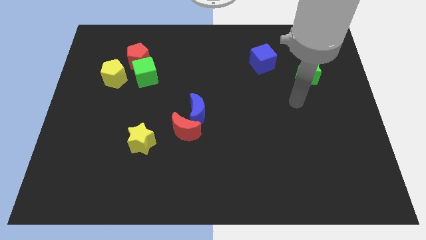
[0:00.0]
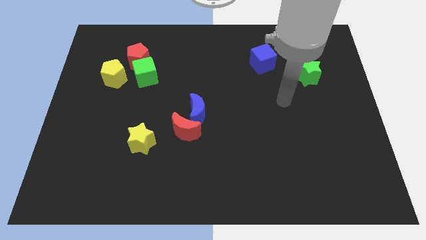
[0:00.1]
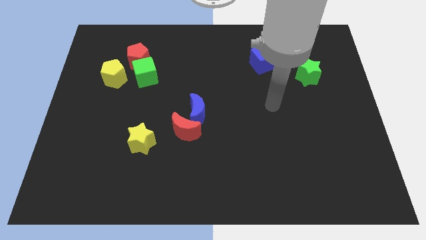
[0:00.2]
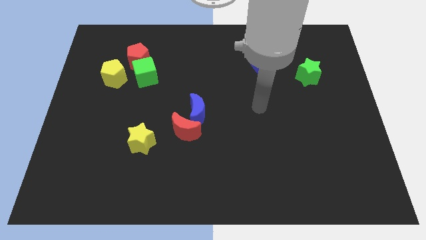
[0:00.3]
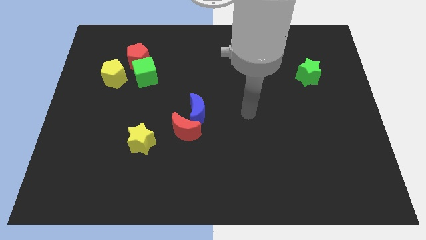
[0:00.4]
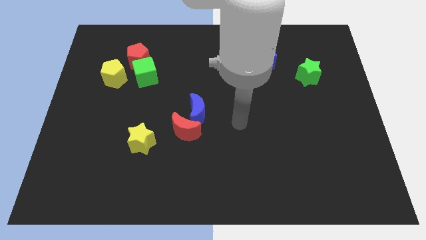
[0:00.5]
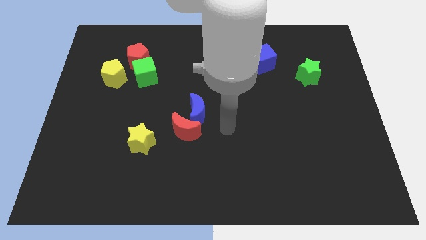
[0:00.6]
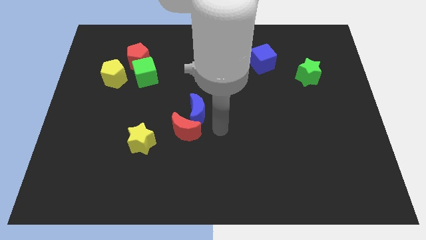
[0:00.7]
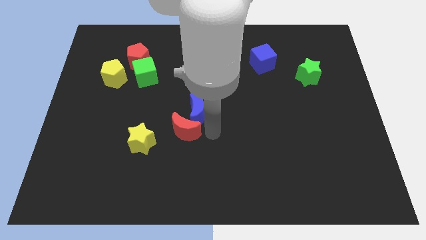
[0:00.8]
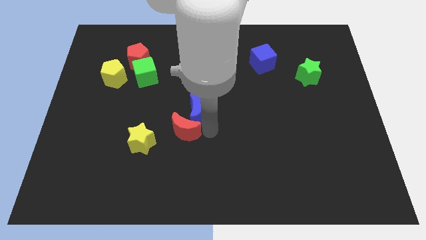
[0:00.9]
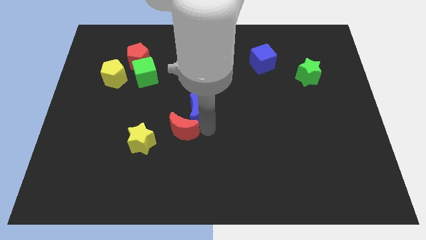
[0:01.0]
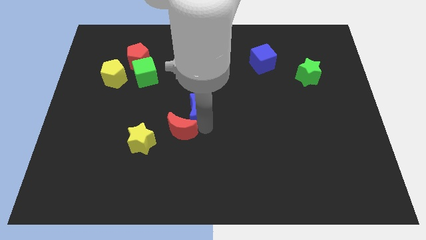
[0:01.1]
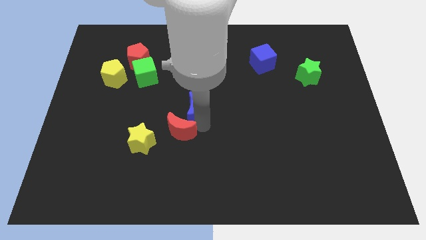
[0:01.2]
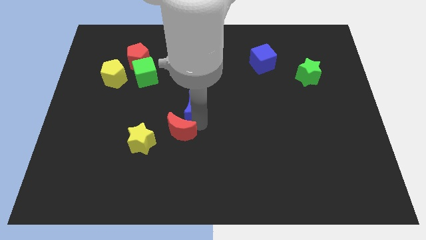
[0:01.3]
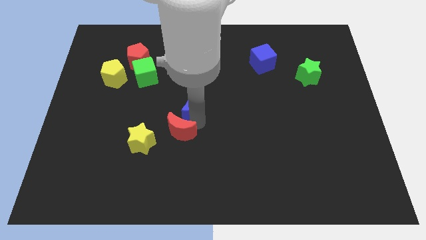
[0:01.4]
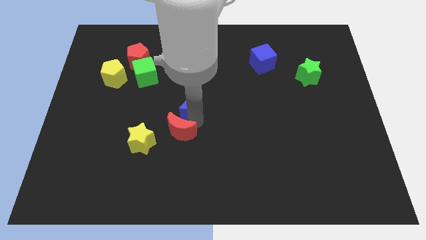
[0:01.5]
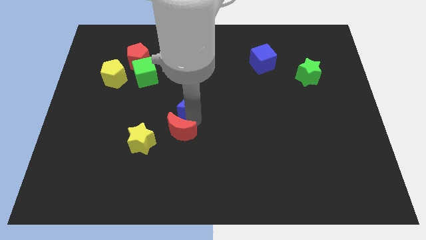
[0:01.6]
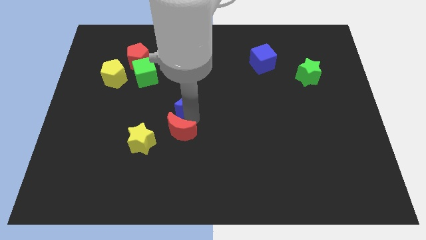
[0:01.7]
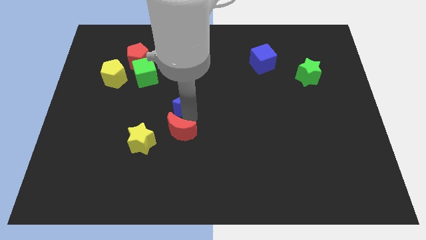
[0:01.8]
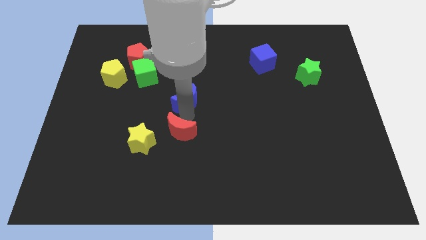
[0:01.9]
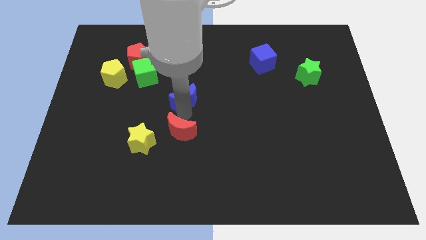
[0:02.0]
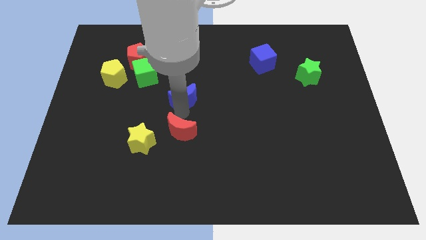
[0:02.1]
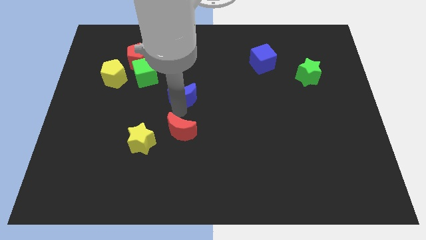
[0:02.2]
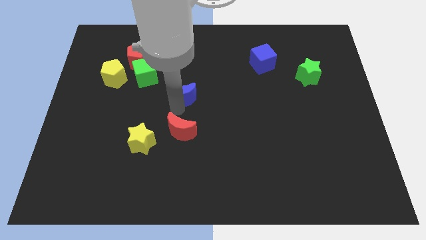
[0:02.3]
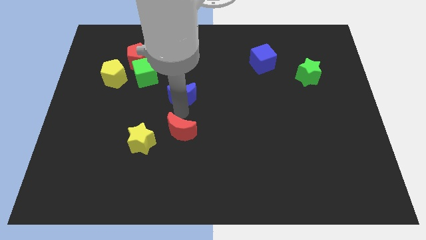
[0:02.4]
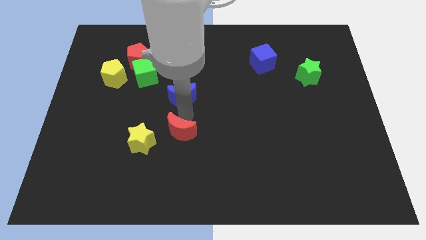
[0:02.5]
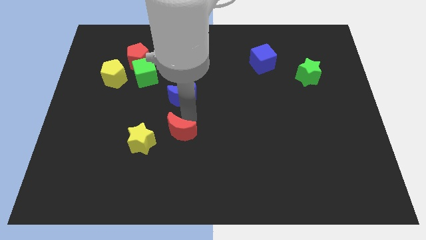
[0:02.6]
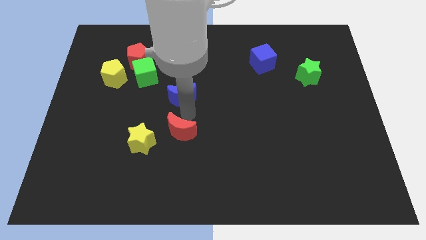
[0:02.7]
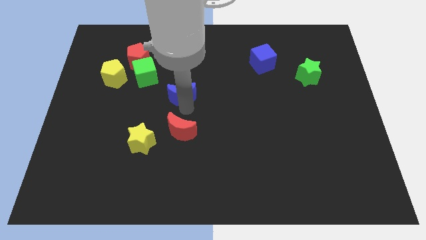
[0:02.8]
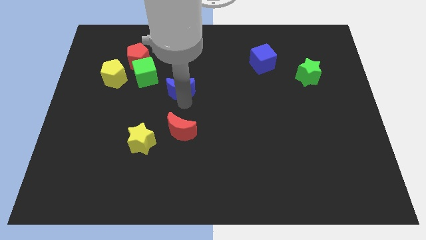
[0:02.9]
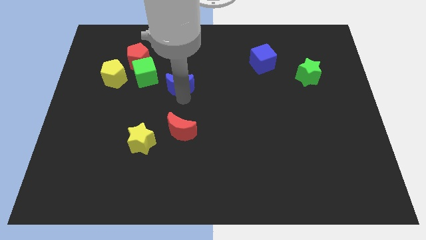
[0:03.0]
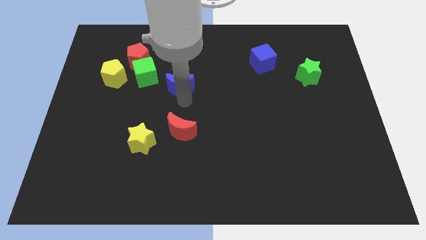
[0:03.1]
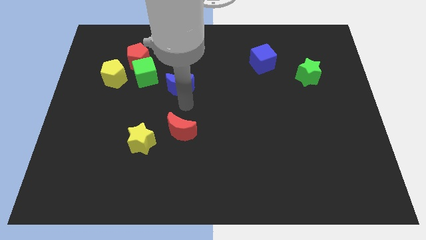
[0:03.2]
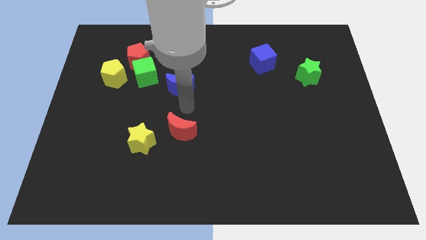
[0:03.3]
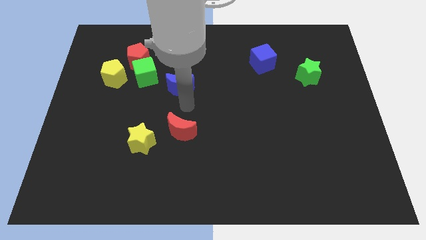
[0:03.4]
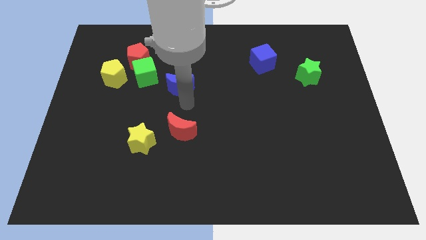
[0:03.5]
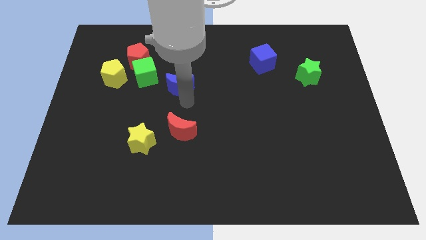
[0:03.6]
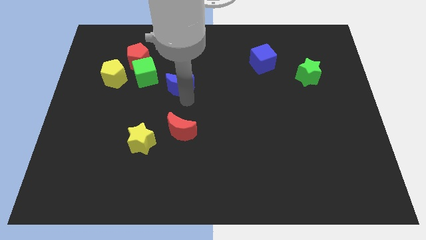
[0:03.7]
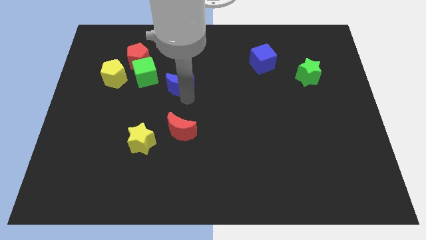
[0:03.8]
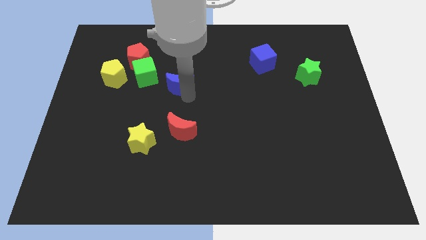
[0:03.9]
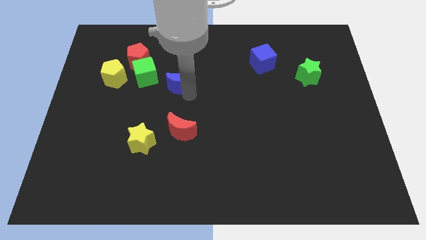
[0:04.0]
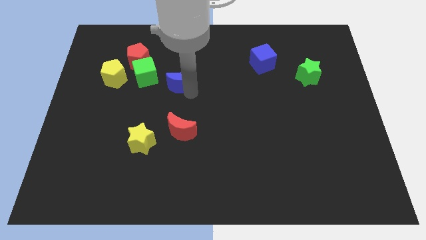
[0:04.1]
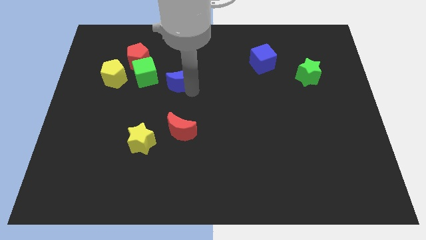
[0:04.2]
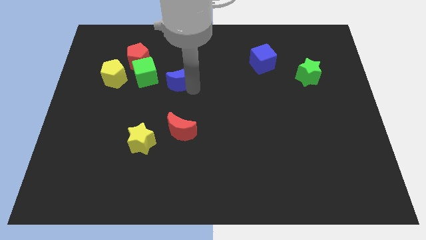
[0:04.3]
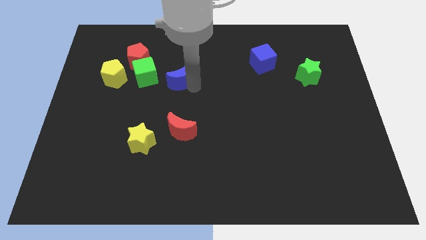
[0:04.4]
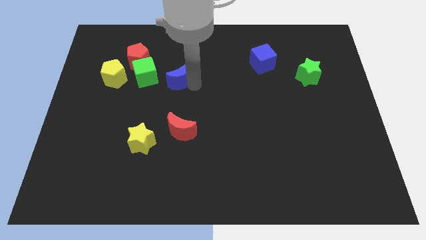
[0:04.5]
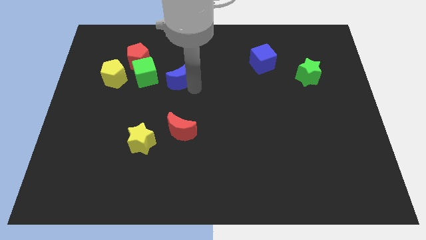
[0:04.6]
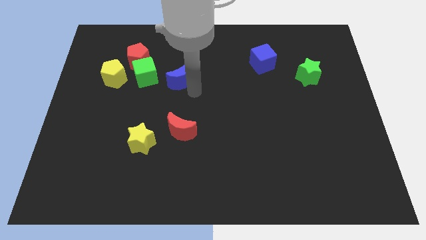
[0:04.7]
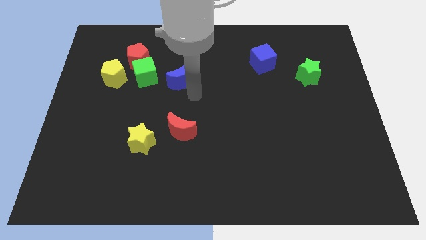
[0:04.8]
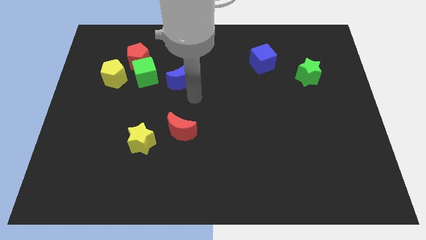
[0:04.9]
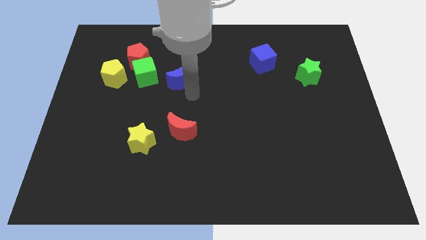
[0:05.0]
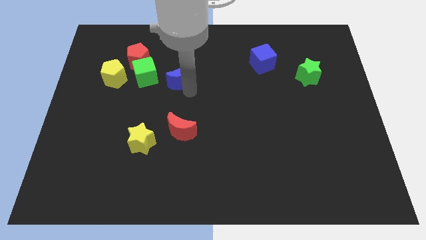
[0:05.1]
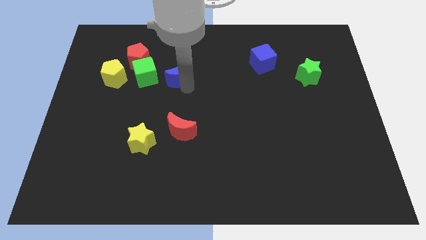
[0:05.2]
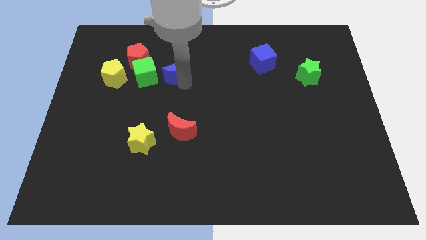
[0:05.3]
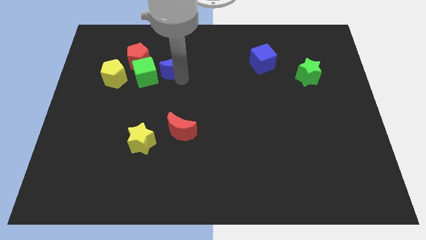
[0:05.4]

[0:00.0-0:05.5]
push the blue moon diagonally up and to the right of the green cube

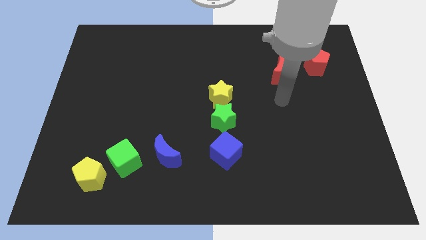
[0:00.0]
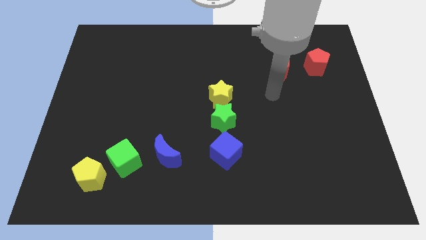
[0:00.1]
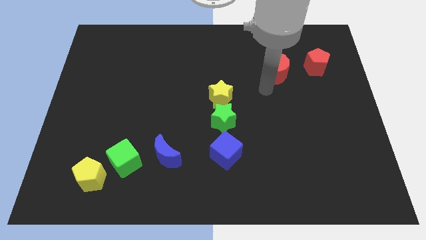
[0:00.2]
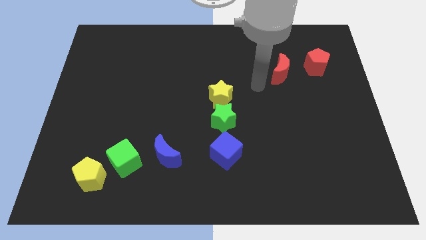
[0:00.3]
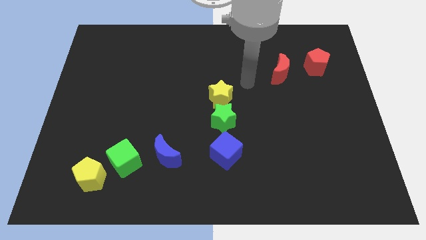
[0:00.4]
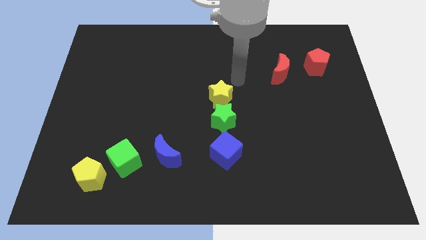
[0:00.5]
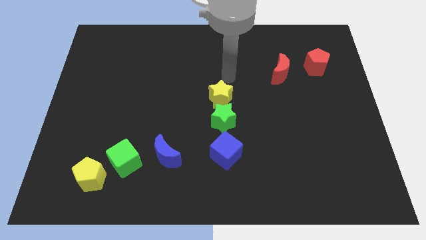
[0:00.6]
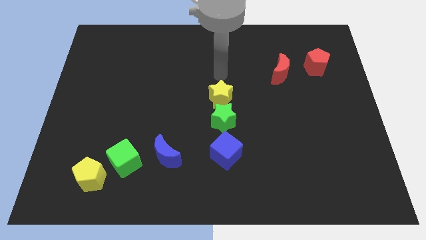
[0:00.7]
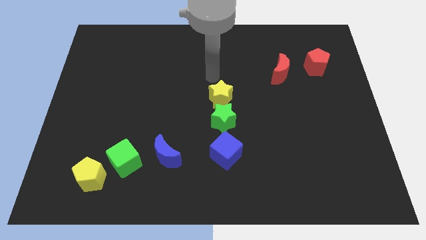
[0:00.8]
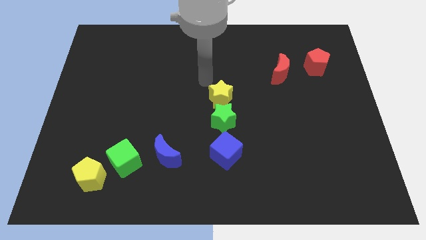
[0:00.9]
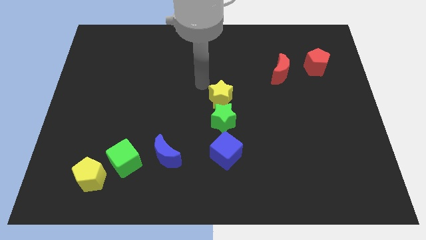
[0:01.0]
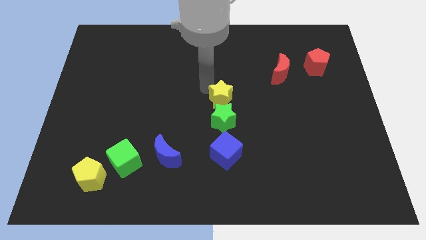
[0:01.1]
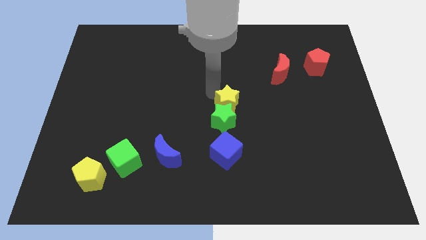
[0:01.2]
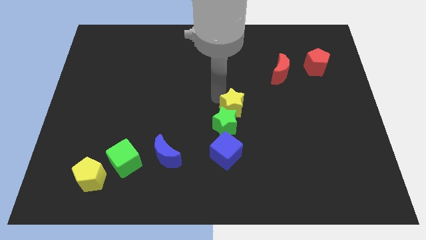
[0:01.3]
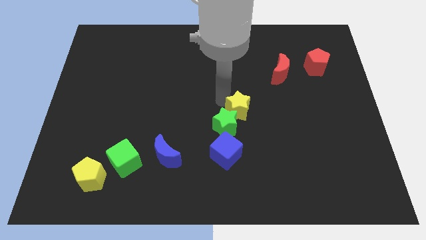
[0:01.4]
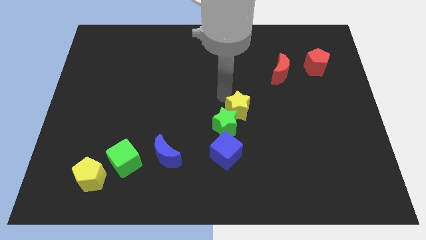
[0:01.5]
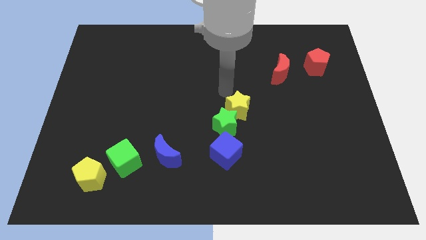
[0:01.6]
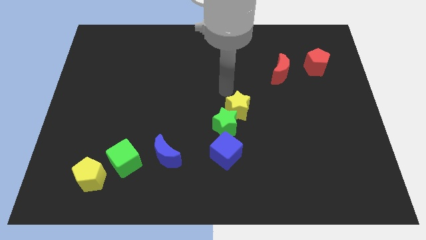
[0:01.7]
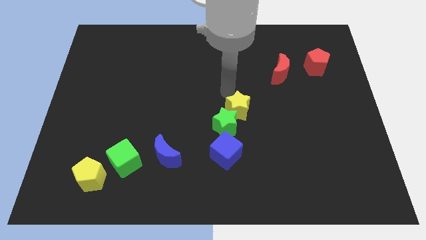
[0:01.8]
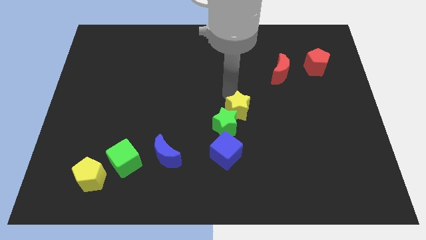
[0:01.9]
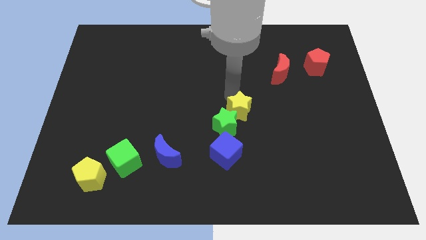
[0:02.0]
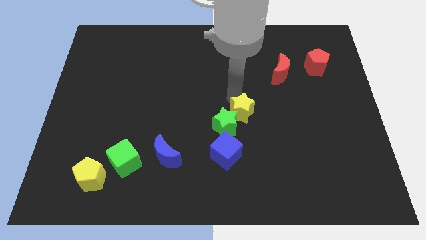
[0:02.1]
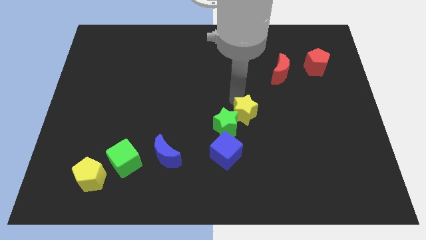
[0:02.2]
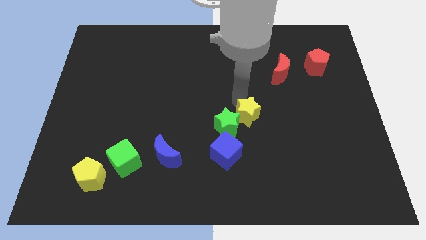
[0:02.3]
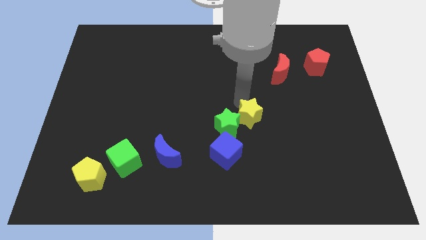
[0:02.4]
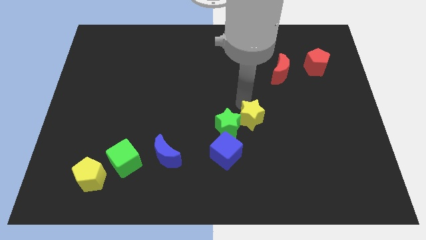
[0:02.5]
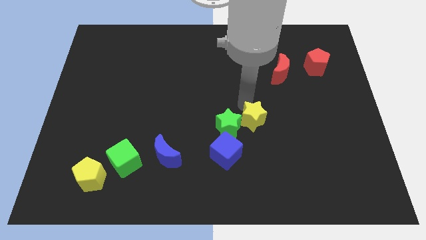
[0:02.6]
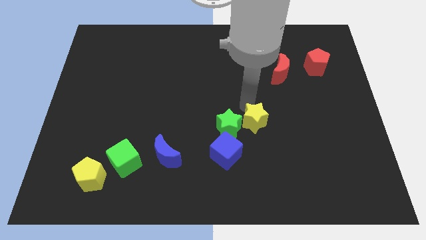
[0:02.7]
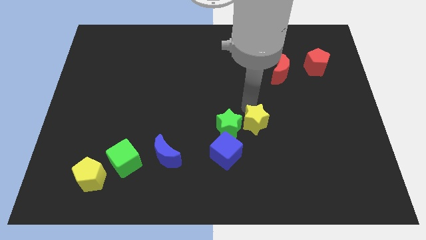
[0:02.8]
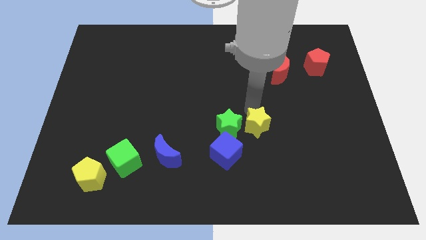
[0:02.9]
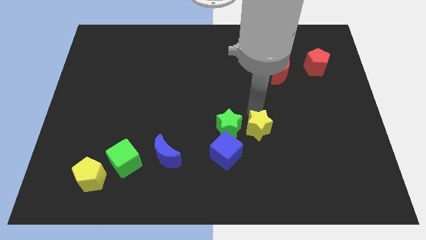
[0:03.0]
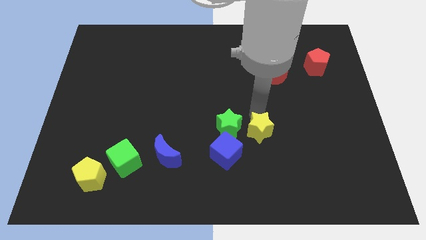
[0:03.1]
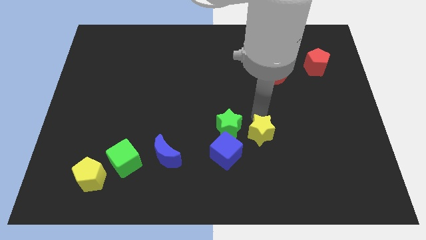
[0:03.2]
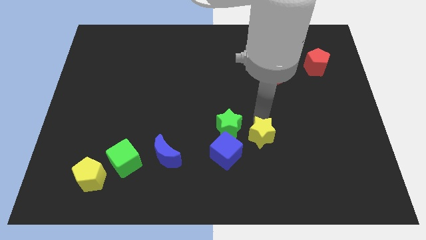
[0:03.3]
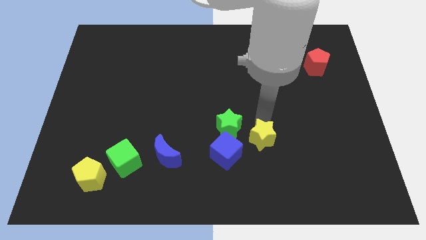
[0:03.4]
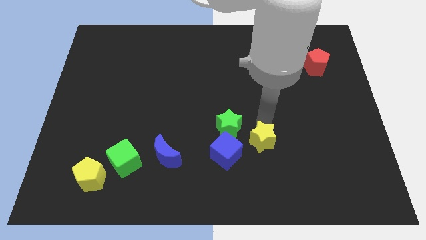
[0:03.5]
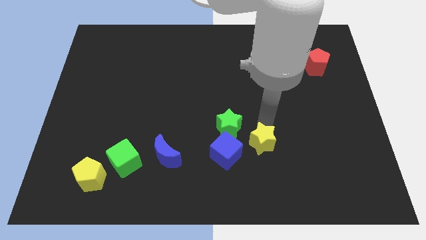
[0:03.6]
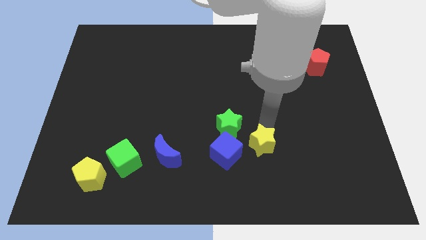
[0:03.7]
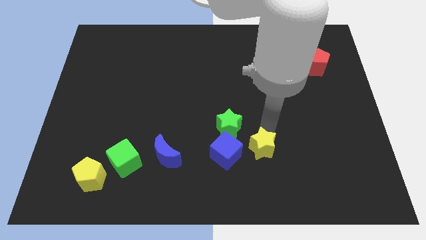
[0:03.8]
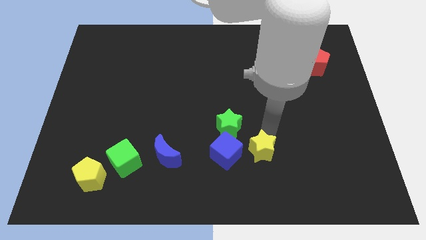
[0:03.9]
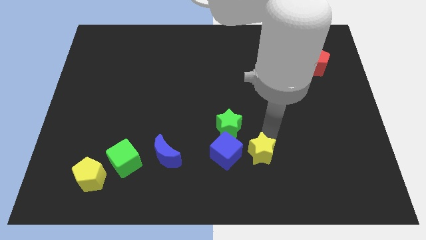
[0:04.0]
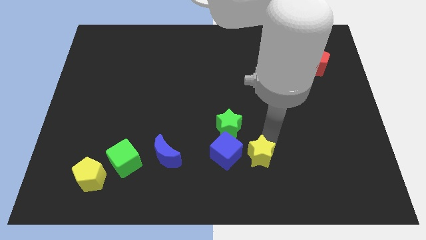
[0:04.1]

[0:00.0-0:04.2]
move the yellow star to the bottom right of the blue cube
